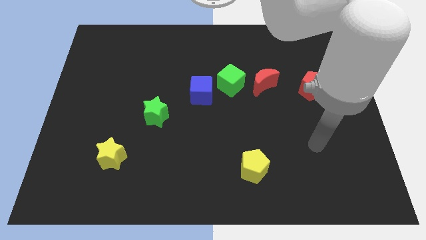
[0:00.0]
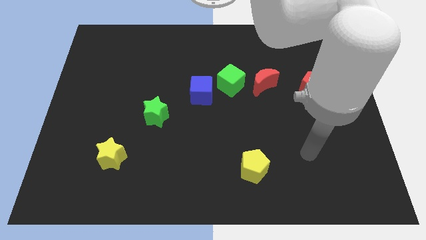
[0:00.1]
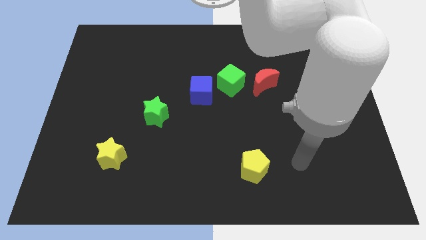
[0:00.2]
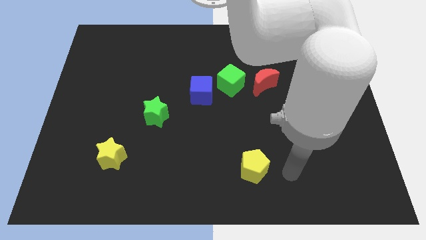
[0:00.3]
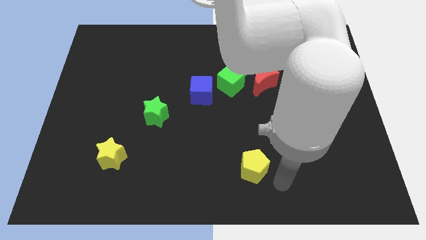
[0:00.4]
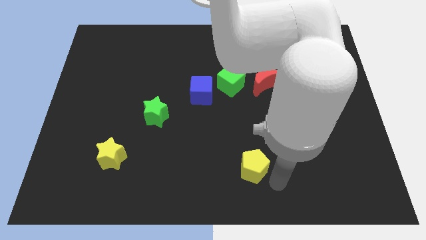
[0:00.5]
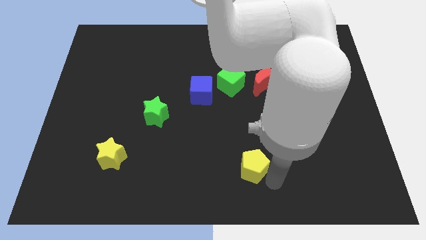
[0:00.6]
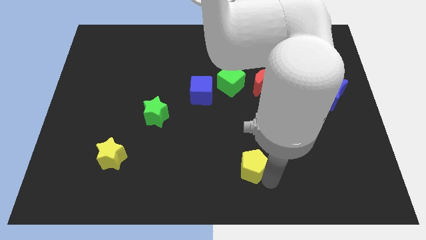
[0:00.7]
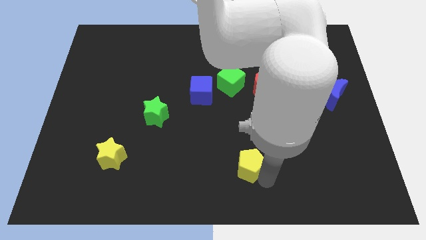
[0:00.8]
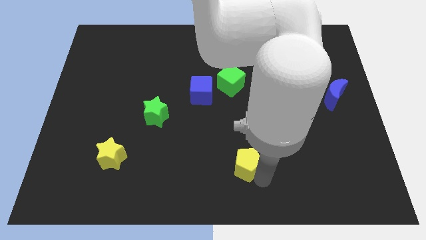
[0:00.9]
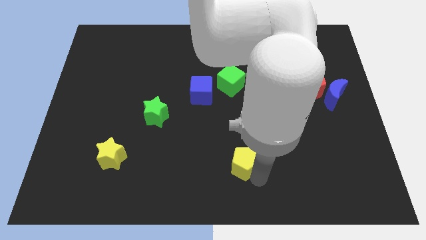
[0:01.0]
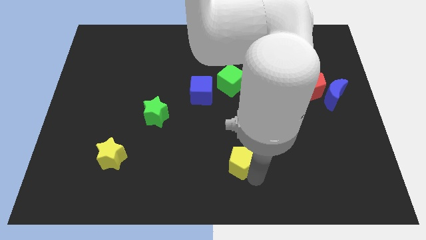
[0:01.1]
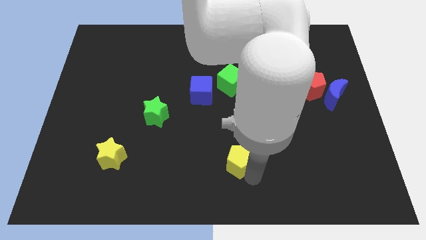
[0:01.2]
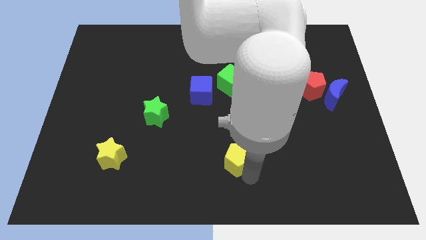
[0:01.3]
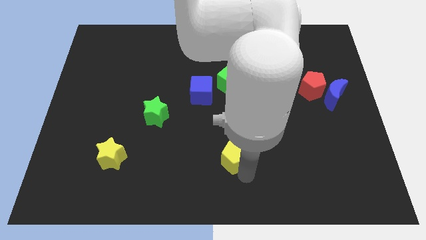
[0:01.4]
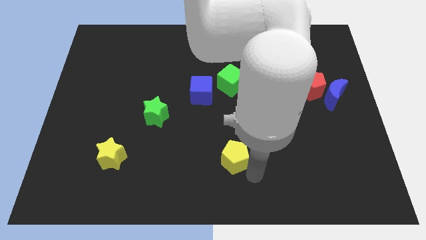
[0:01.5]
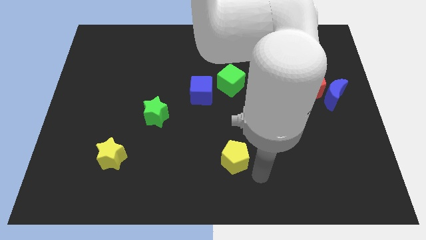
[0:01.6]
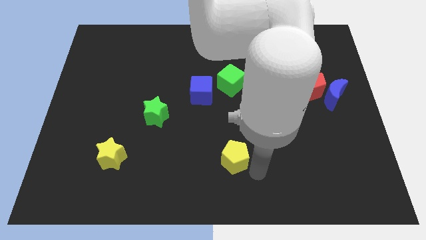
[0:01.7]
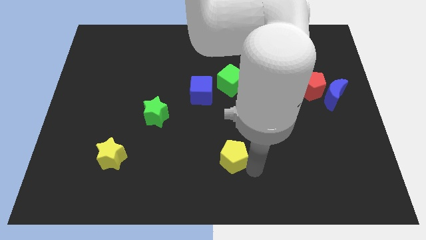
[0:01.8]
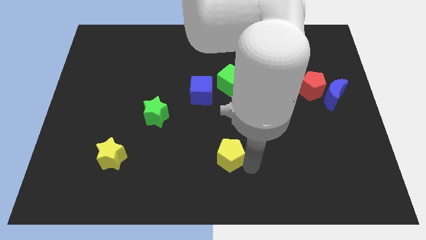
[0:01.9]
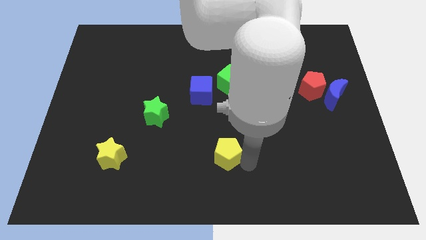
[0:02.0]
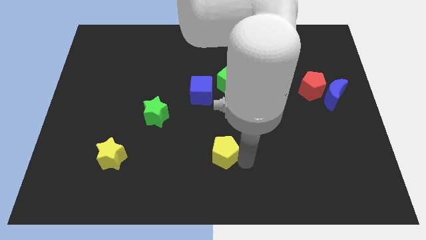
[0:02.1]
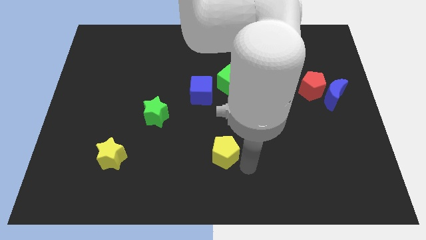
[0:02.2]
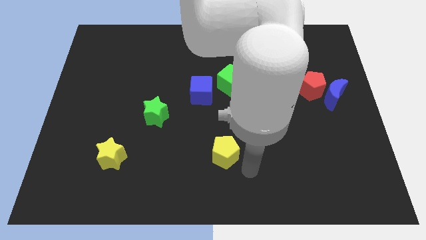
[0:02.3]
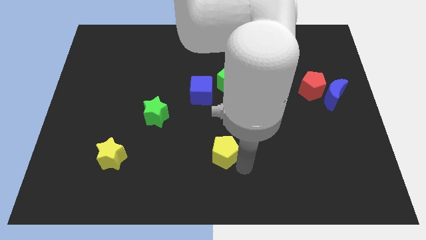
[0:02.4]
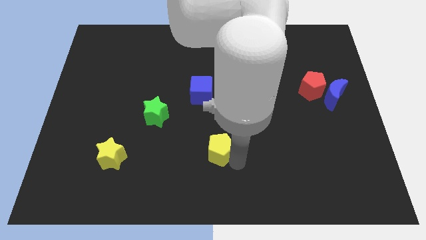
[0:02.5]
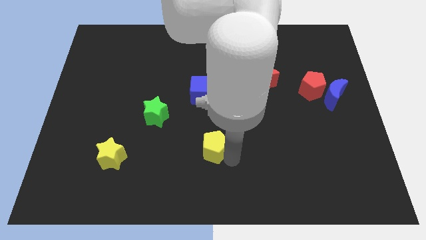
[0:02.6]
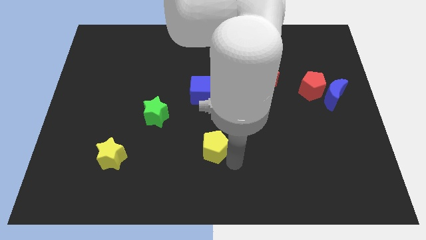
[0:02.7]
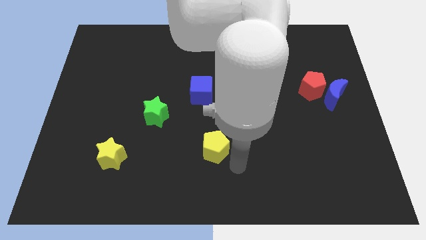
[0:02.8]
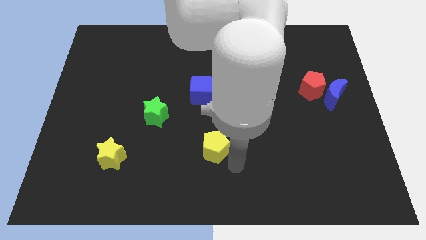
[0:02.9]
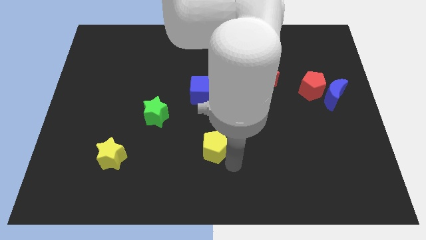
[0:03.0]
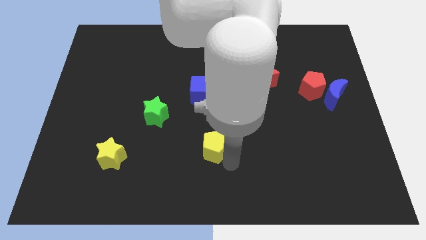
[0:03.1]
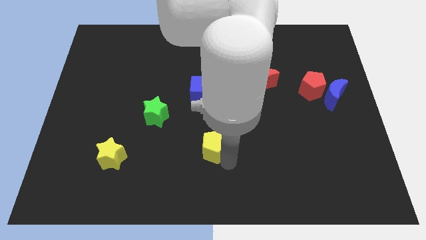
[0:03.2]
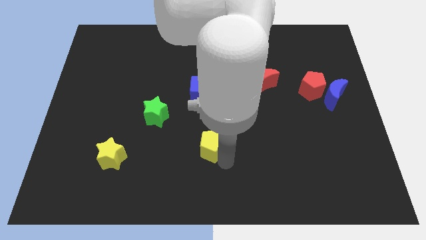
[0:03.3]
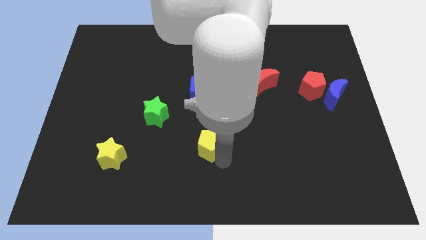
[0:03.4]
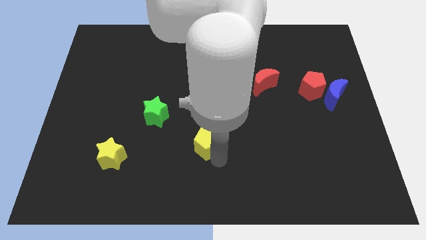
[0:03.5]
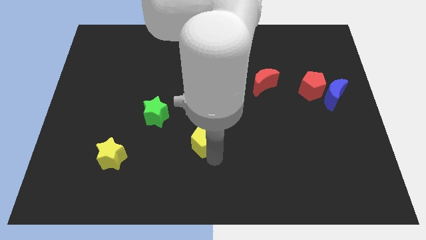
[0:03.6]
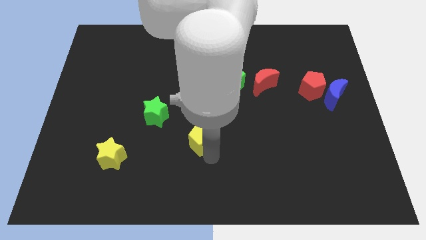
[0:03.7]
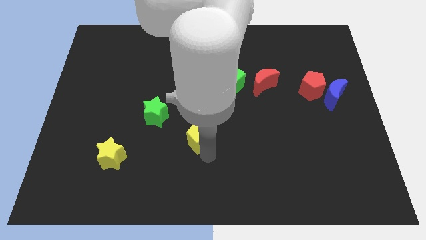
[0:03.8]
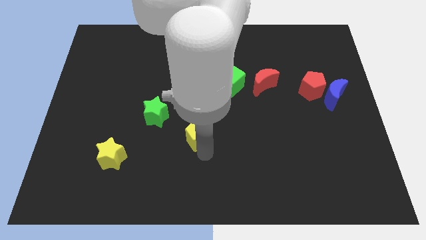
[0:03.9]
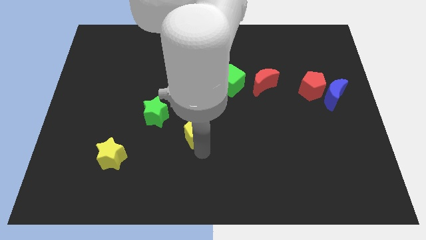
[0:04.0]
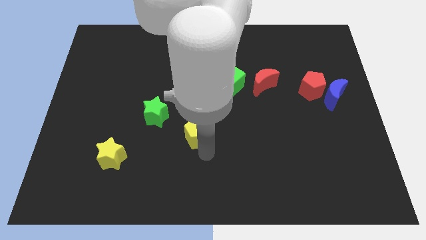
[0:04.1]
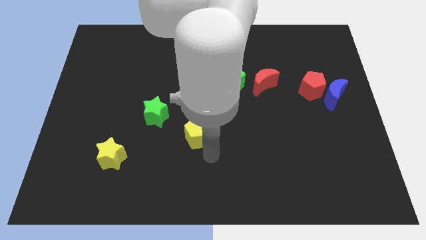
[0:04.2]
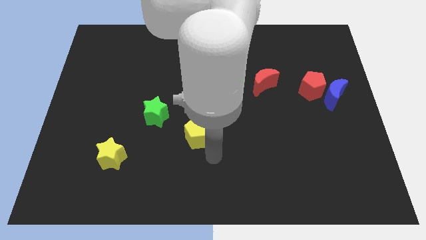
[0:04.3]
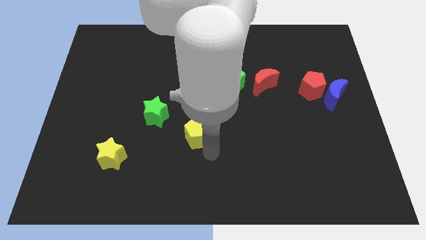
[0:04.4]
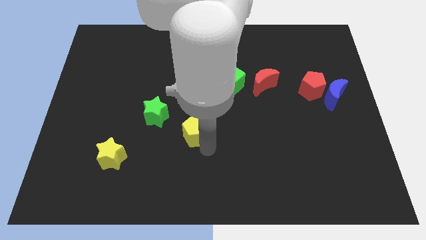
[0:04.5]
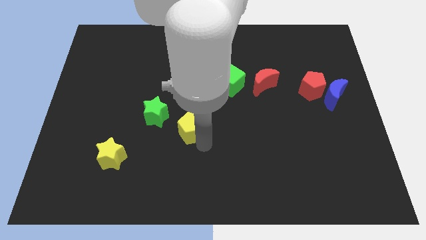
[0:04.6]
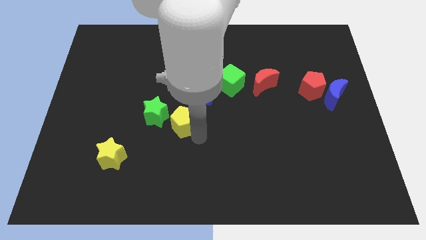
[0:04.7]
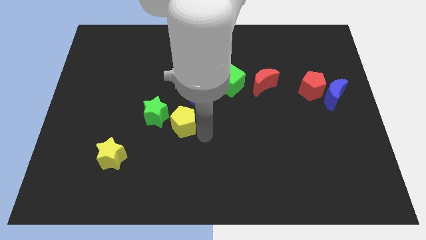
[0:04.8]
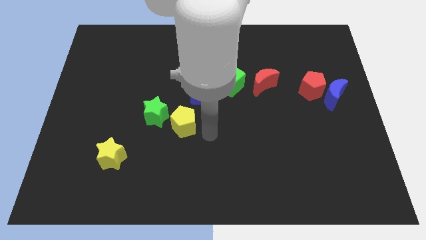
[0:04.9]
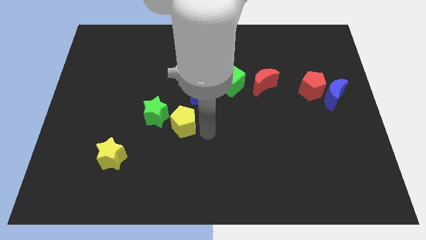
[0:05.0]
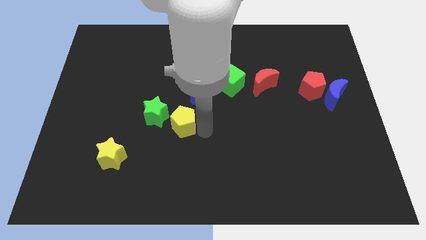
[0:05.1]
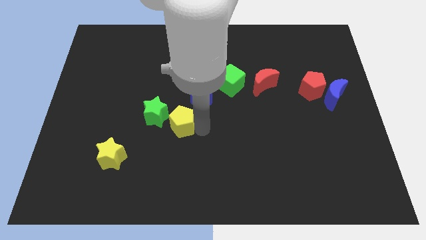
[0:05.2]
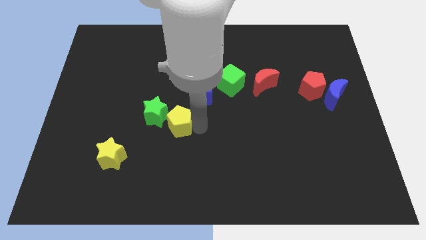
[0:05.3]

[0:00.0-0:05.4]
push the yellow pentagon towards the green star

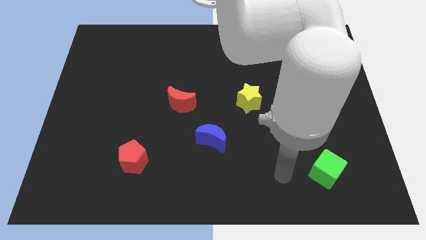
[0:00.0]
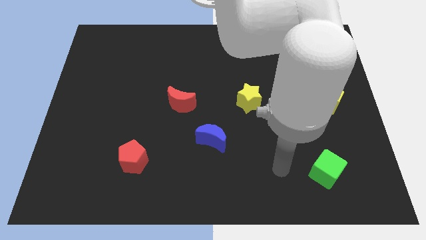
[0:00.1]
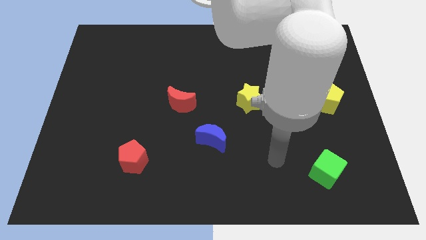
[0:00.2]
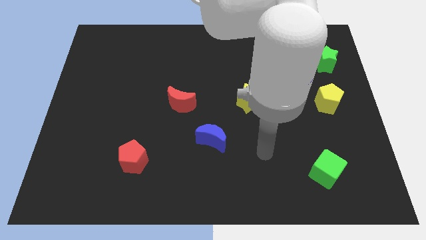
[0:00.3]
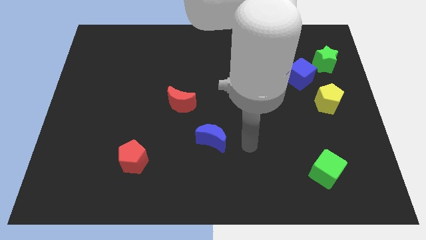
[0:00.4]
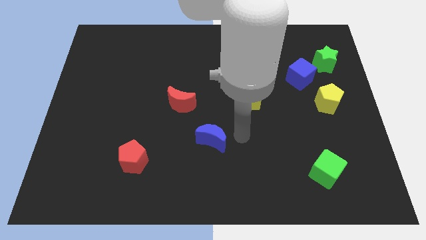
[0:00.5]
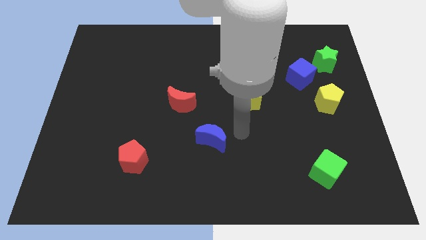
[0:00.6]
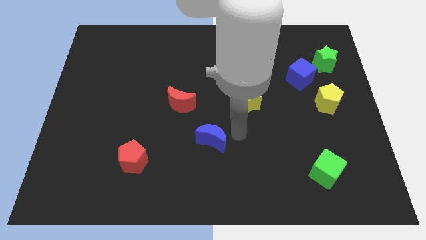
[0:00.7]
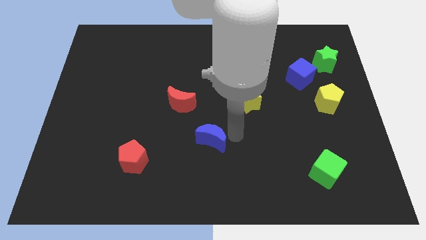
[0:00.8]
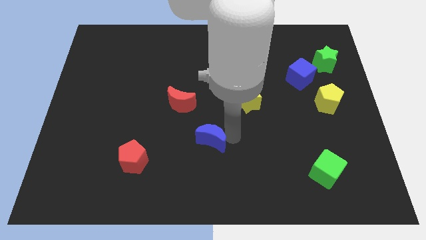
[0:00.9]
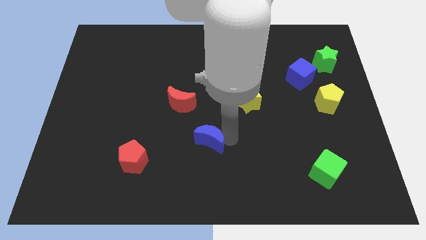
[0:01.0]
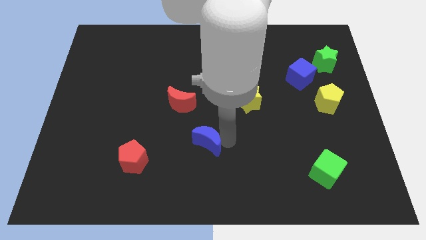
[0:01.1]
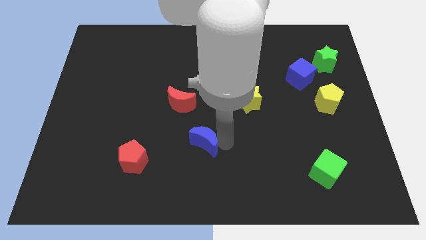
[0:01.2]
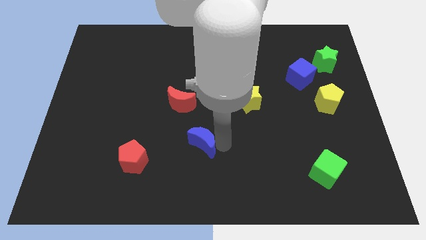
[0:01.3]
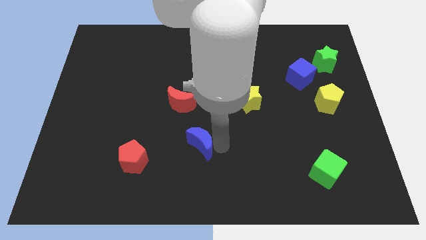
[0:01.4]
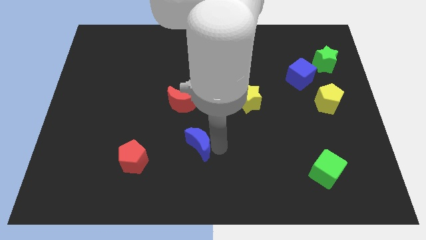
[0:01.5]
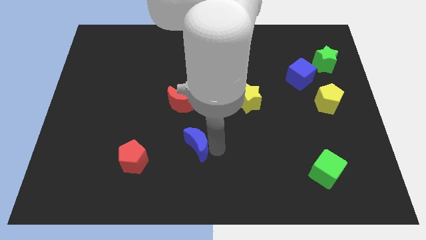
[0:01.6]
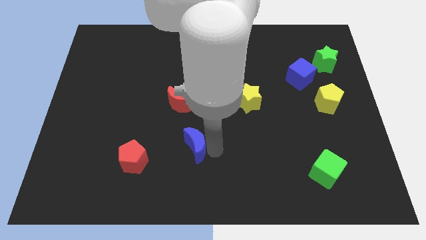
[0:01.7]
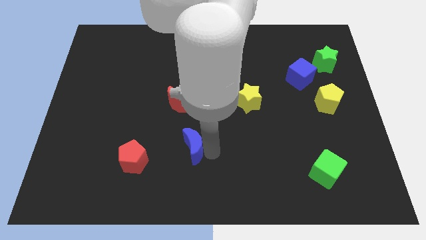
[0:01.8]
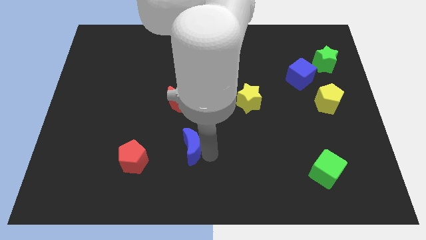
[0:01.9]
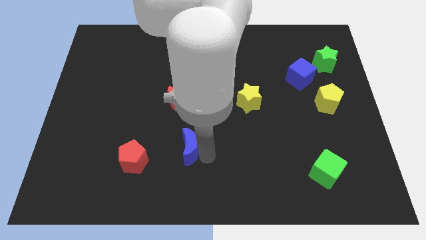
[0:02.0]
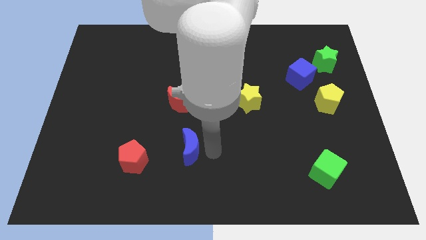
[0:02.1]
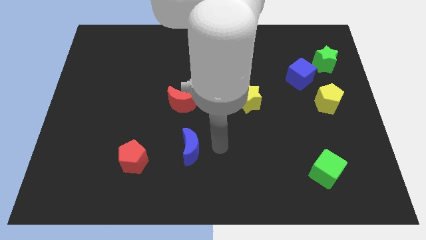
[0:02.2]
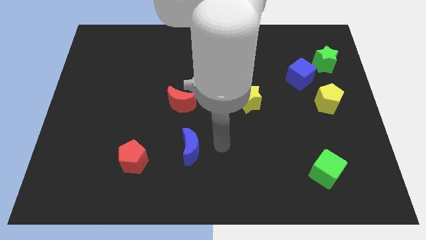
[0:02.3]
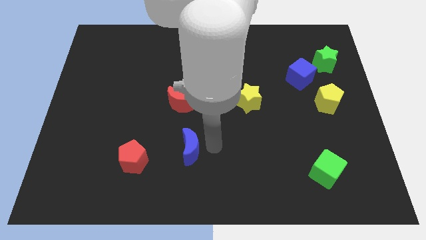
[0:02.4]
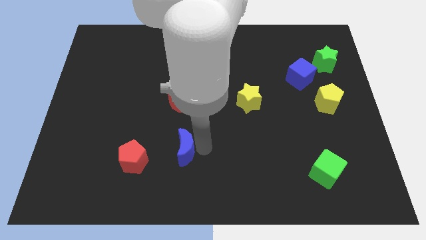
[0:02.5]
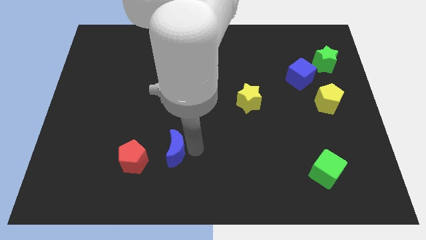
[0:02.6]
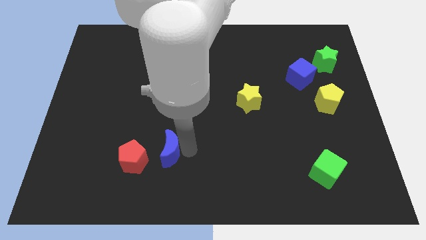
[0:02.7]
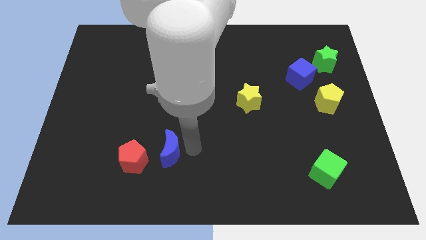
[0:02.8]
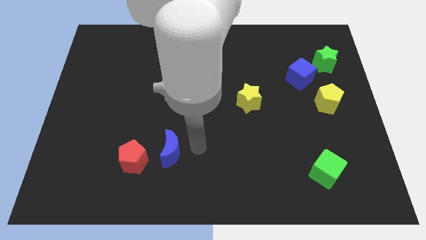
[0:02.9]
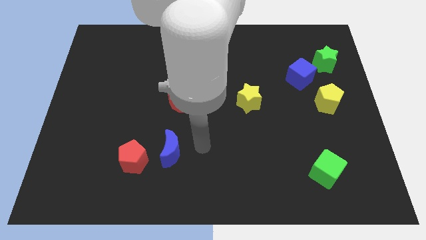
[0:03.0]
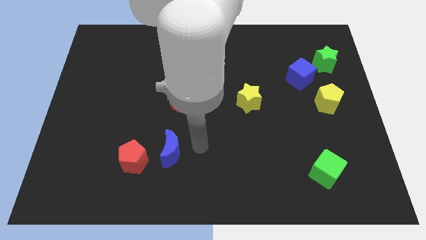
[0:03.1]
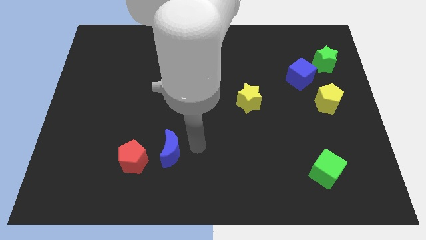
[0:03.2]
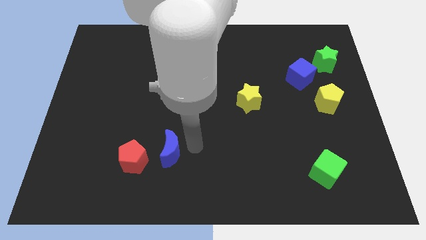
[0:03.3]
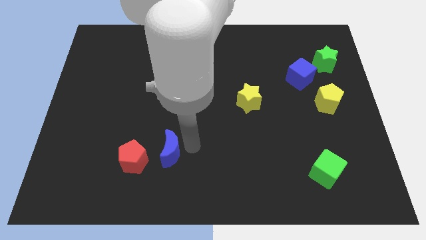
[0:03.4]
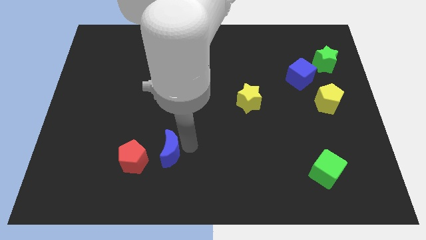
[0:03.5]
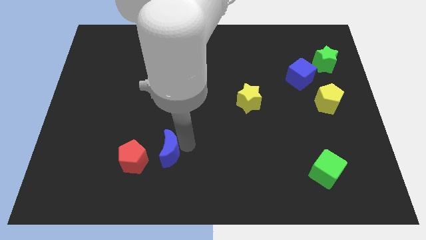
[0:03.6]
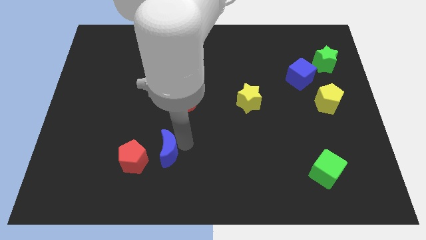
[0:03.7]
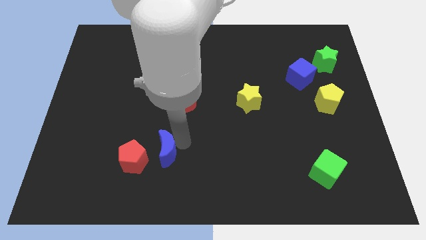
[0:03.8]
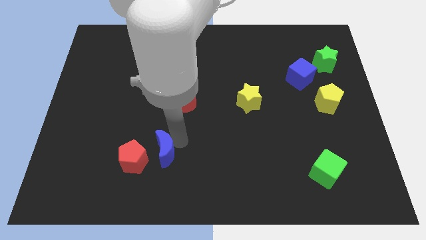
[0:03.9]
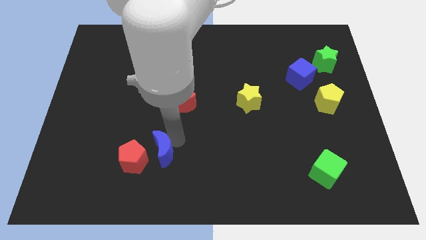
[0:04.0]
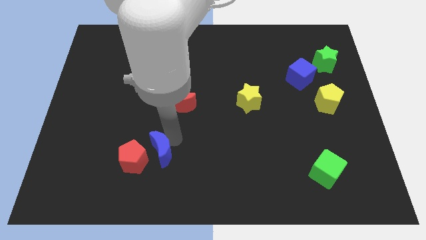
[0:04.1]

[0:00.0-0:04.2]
slide the blue moon towards the red pentagon
